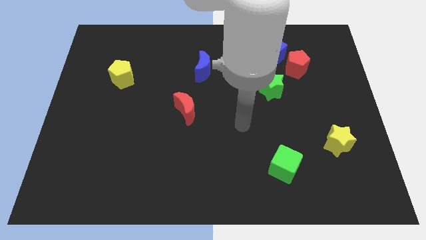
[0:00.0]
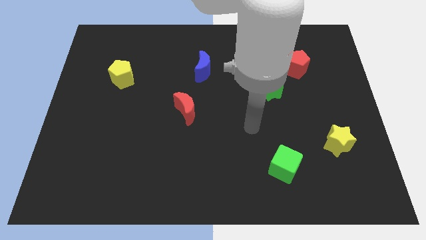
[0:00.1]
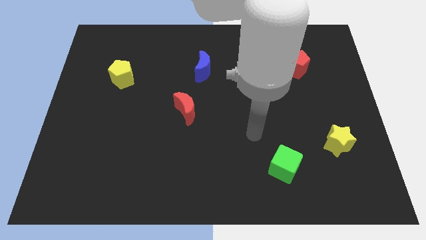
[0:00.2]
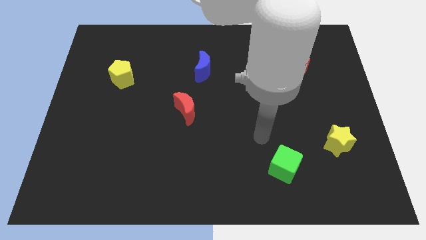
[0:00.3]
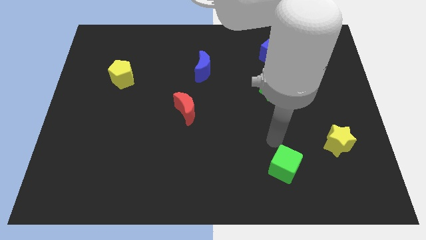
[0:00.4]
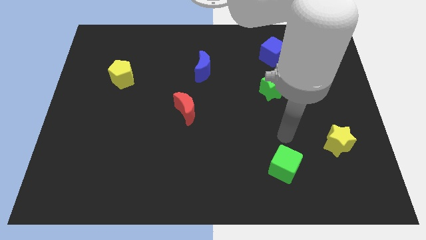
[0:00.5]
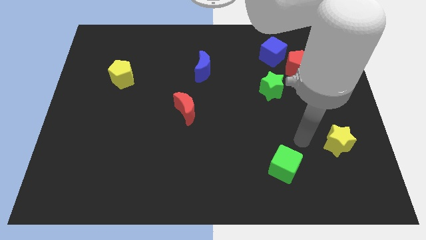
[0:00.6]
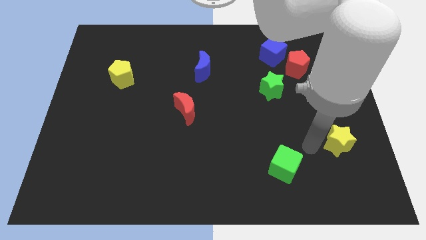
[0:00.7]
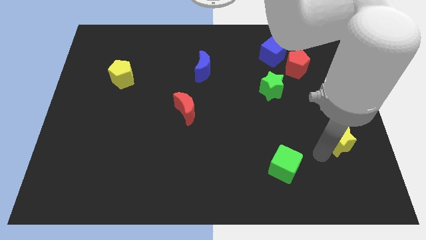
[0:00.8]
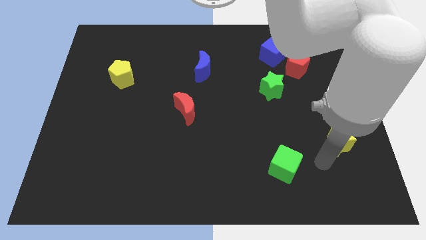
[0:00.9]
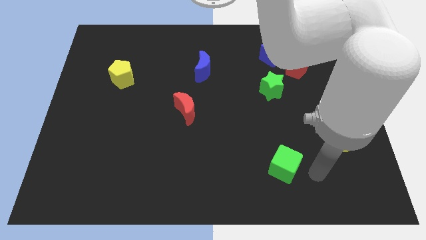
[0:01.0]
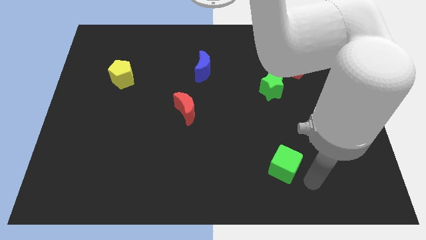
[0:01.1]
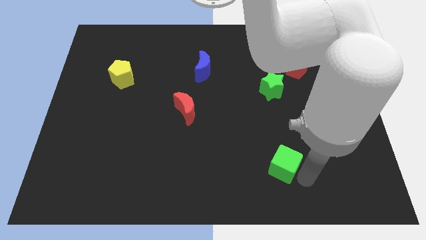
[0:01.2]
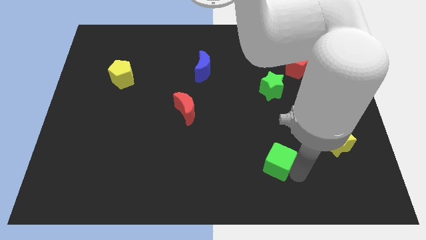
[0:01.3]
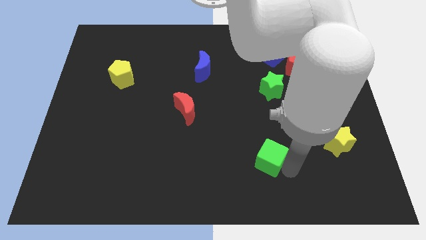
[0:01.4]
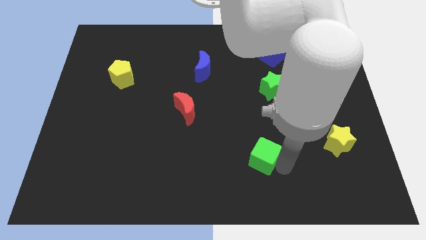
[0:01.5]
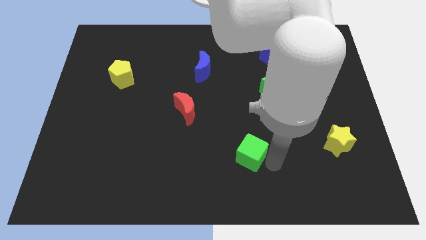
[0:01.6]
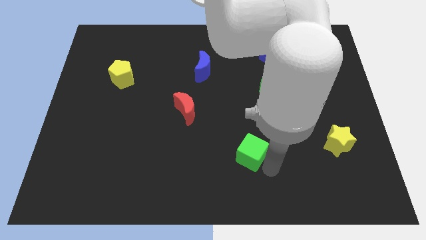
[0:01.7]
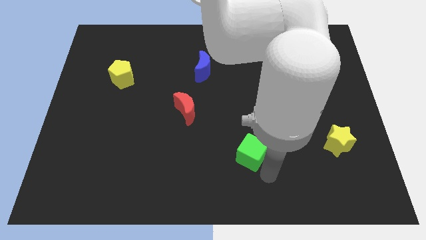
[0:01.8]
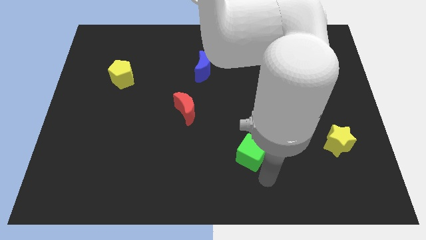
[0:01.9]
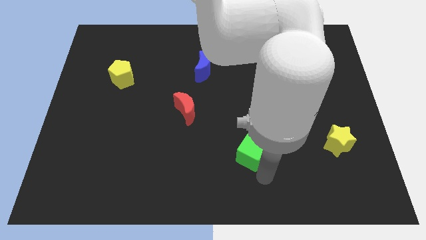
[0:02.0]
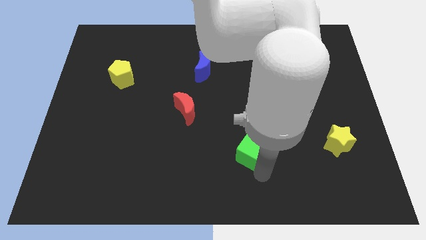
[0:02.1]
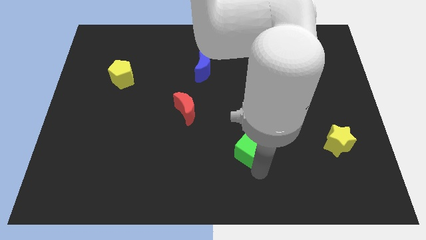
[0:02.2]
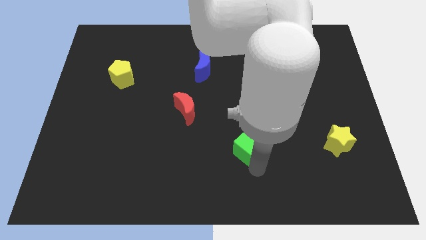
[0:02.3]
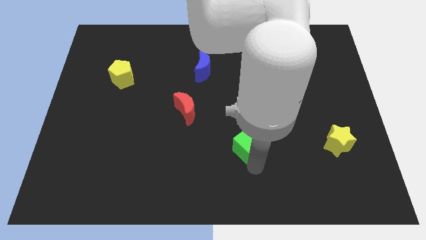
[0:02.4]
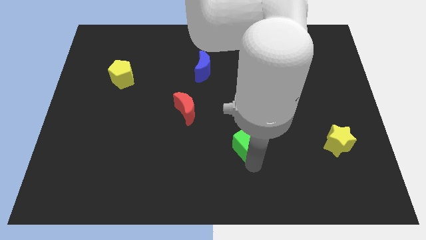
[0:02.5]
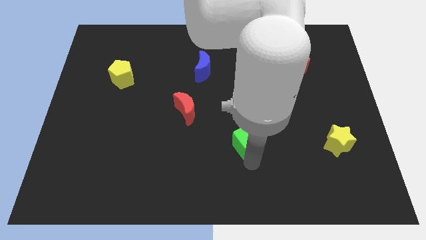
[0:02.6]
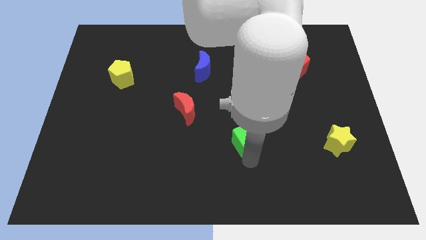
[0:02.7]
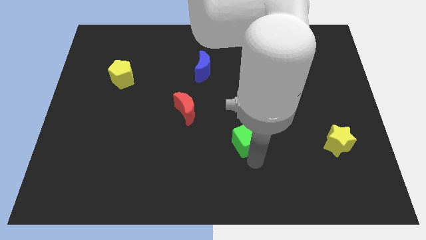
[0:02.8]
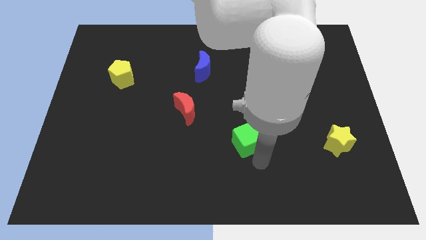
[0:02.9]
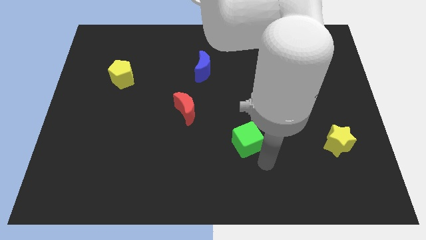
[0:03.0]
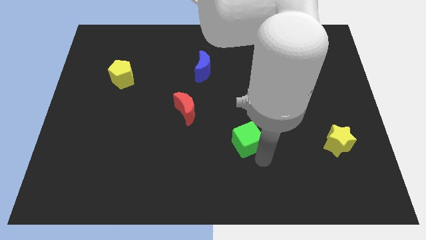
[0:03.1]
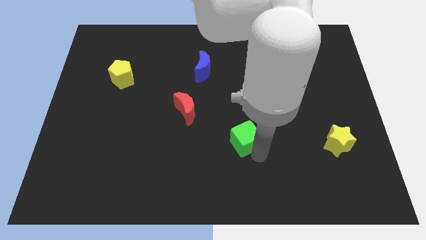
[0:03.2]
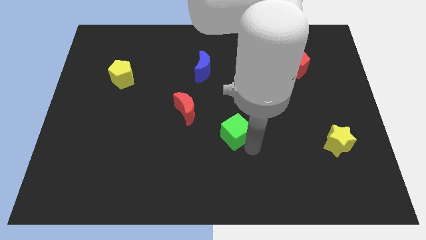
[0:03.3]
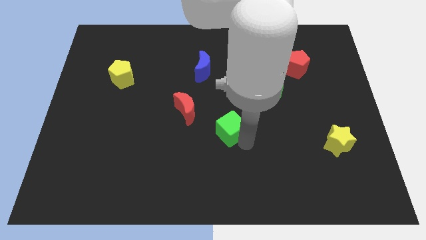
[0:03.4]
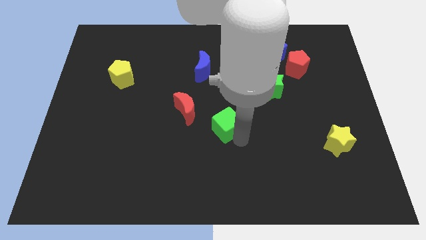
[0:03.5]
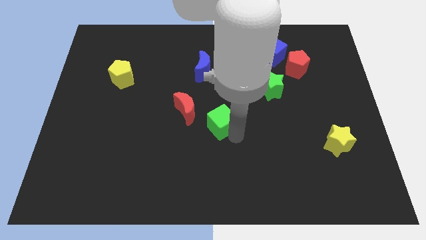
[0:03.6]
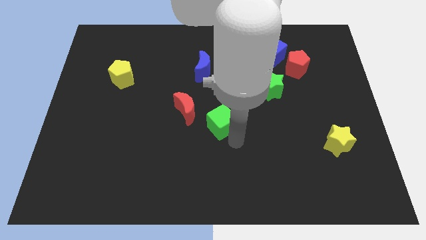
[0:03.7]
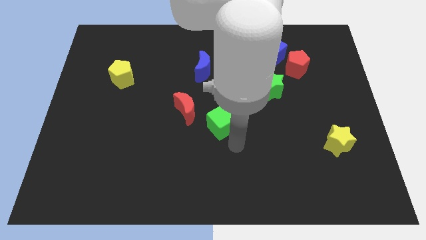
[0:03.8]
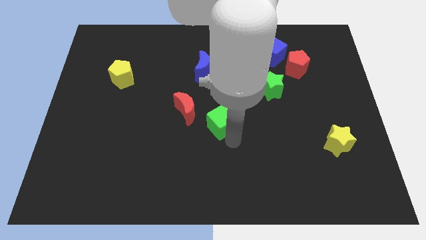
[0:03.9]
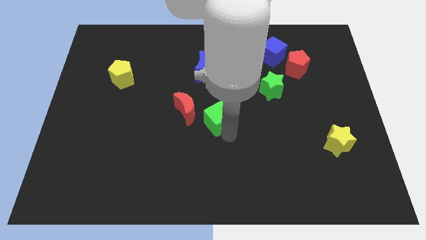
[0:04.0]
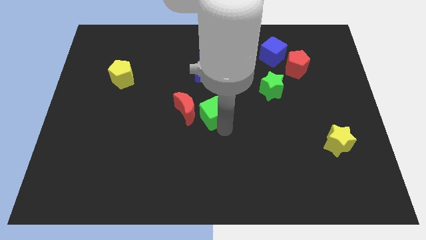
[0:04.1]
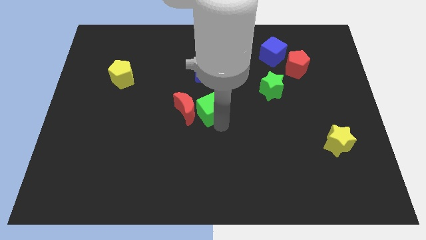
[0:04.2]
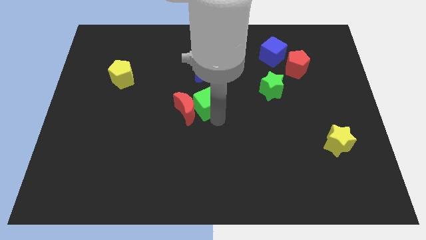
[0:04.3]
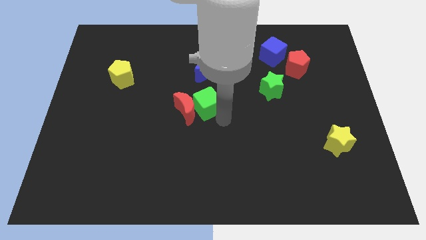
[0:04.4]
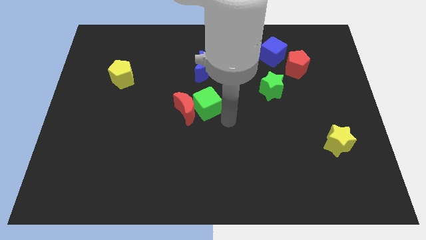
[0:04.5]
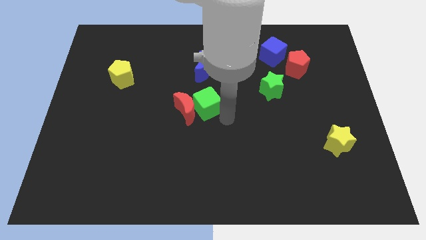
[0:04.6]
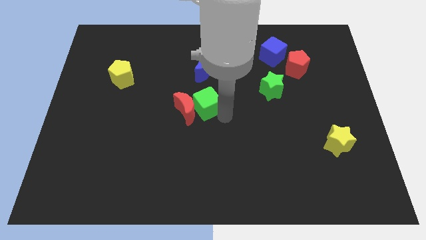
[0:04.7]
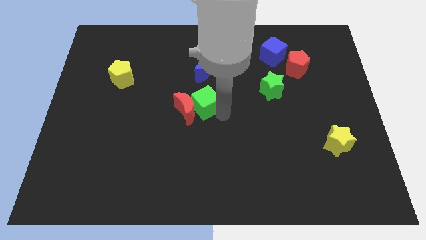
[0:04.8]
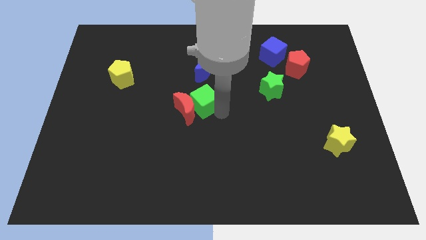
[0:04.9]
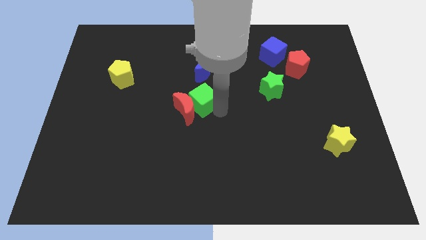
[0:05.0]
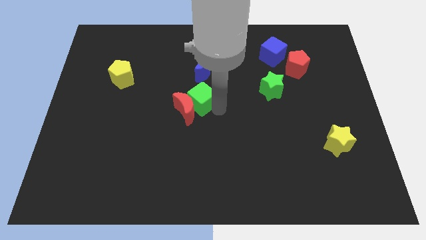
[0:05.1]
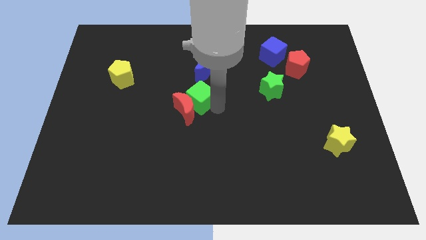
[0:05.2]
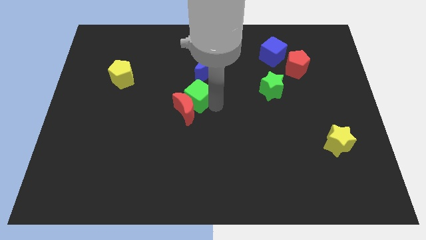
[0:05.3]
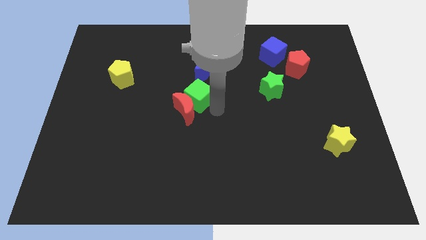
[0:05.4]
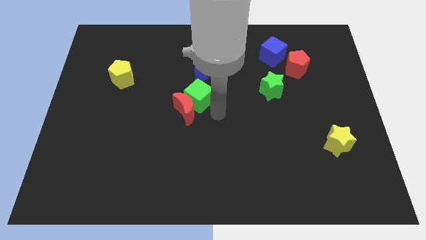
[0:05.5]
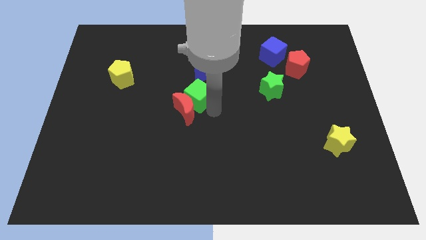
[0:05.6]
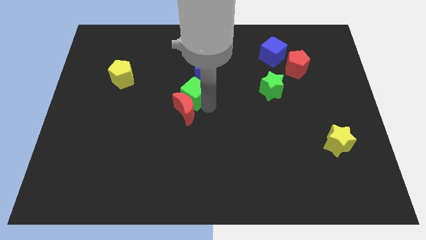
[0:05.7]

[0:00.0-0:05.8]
move the green cube to the bottom left side of the blue moon

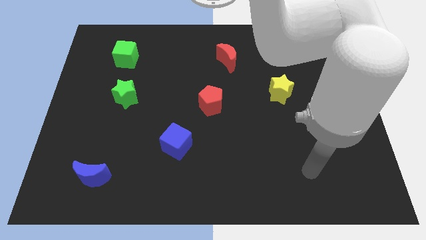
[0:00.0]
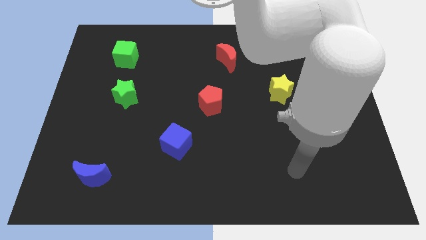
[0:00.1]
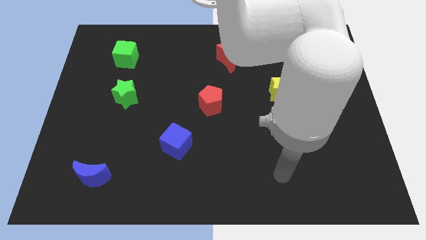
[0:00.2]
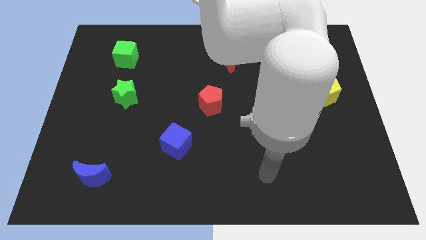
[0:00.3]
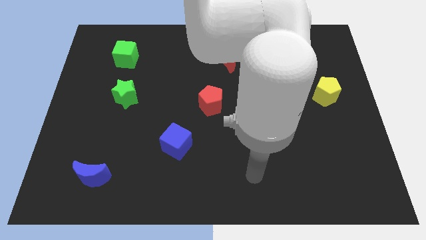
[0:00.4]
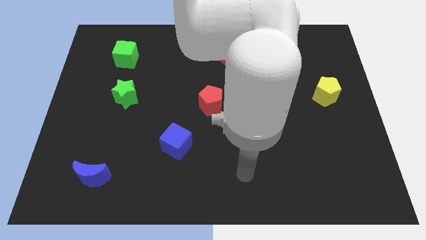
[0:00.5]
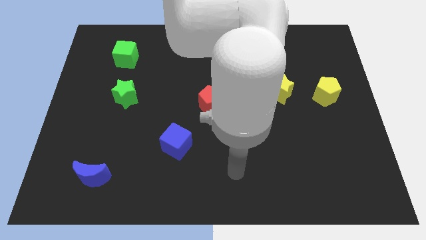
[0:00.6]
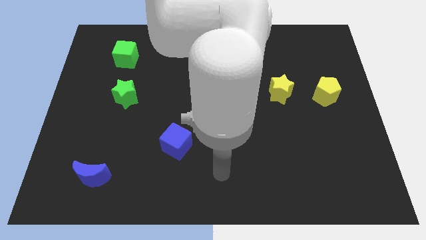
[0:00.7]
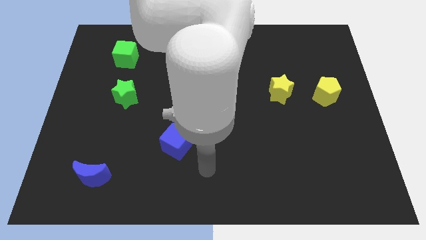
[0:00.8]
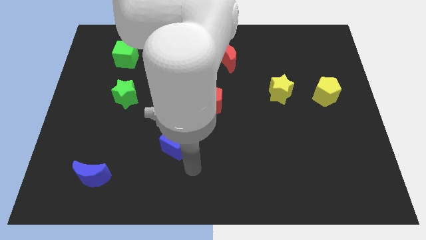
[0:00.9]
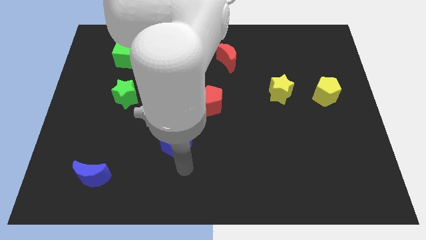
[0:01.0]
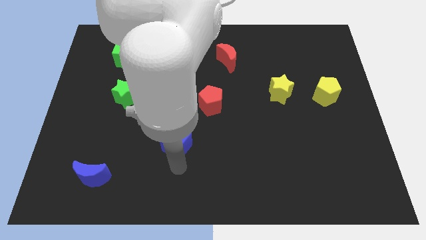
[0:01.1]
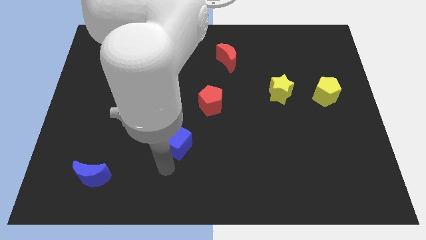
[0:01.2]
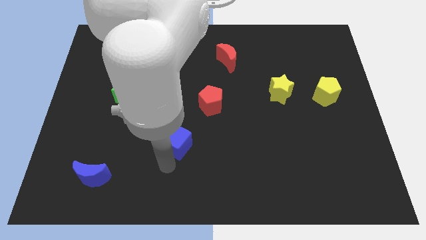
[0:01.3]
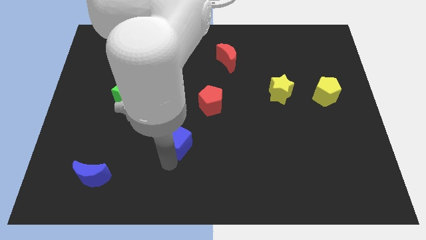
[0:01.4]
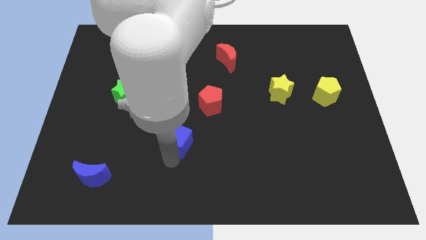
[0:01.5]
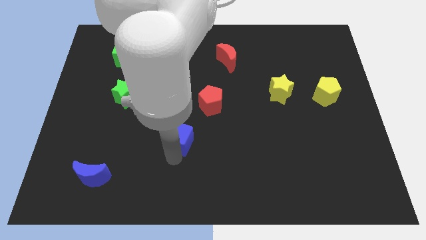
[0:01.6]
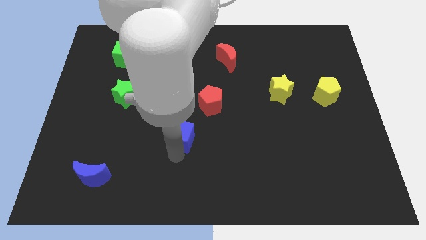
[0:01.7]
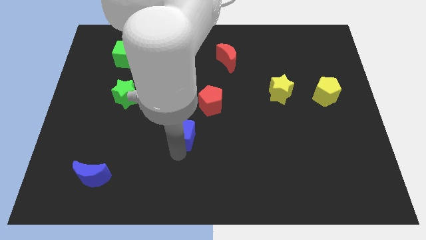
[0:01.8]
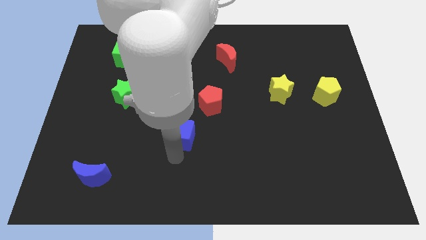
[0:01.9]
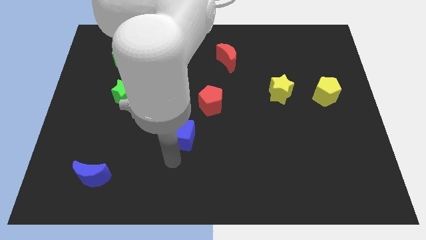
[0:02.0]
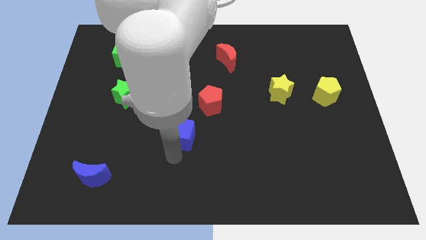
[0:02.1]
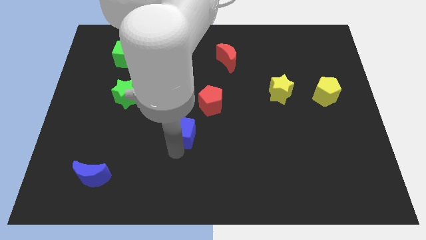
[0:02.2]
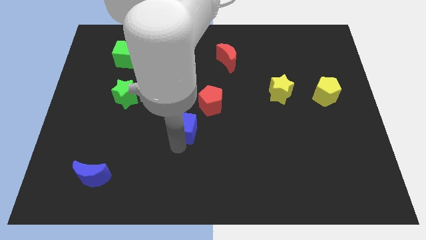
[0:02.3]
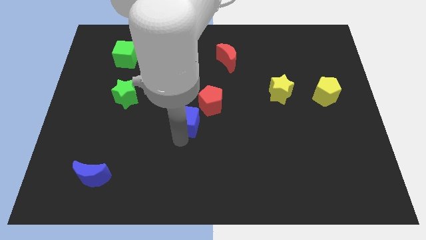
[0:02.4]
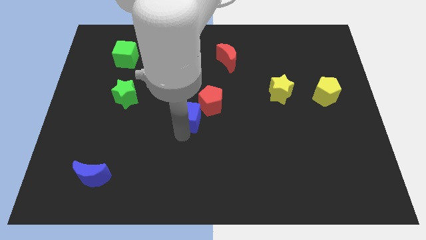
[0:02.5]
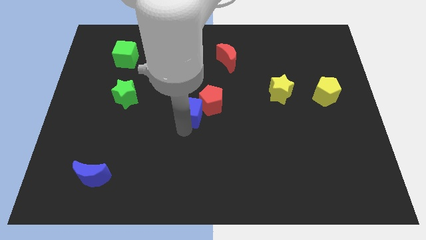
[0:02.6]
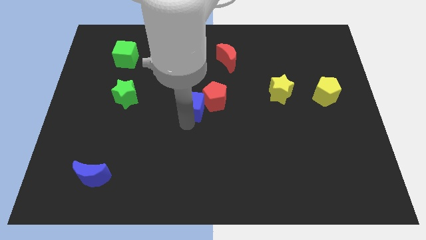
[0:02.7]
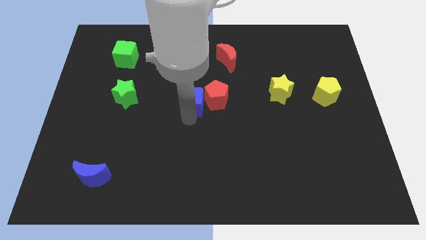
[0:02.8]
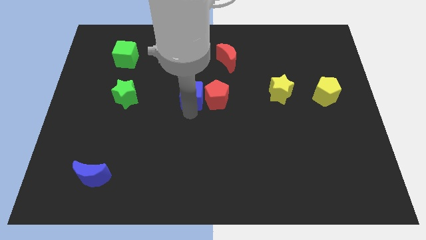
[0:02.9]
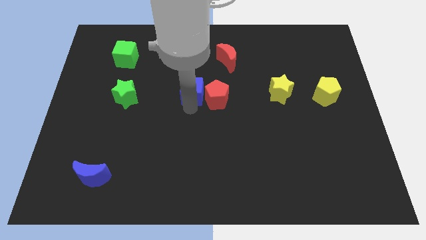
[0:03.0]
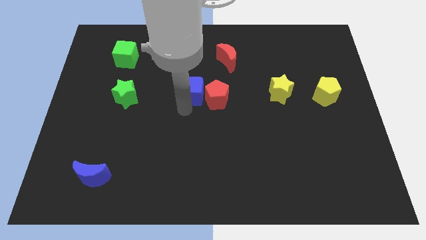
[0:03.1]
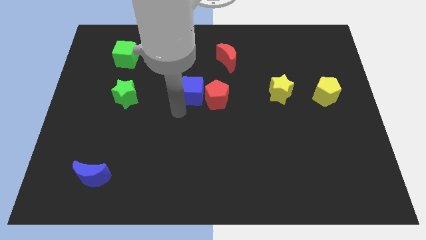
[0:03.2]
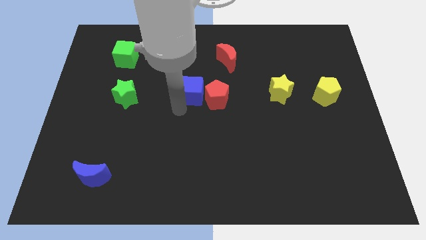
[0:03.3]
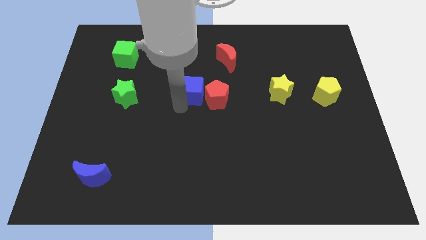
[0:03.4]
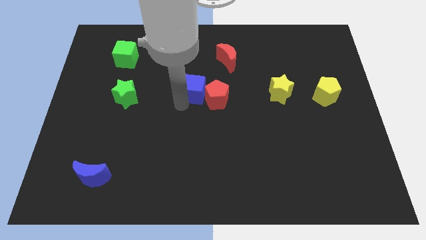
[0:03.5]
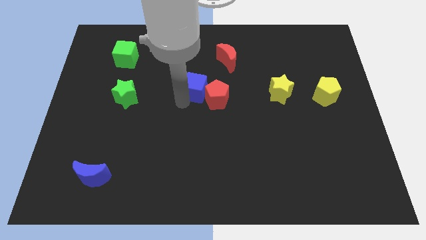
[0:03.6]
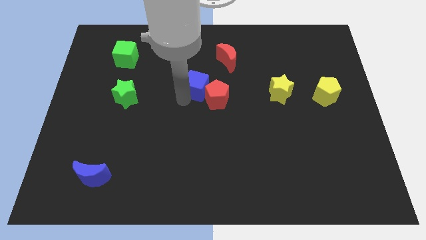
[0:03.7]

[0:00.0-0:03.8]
push the blue cube to the bottom left of the red moon
